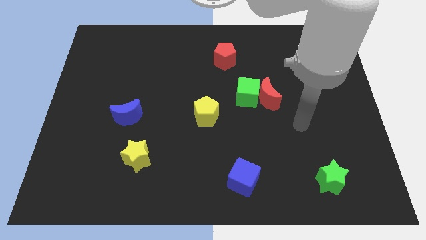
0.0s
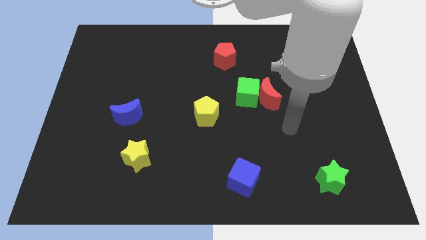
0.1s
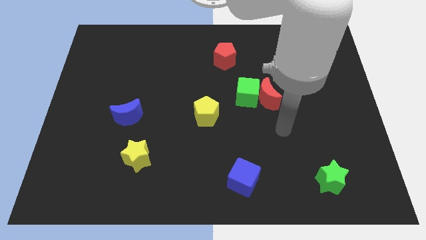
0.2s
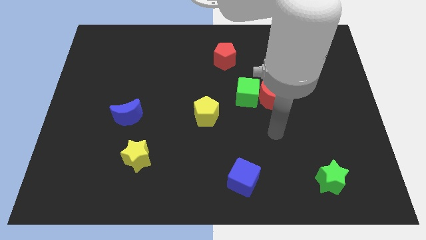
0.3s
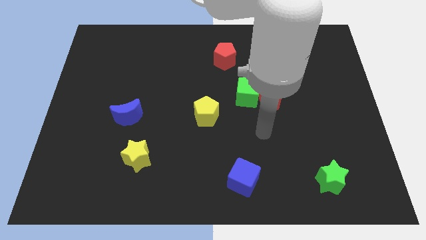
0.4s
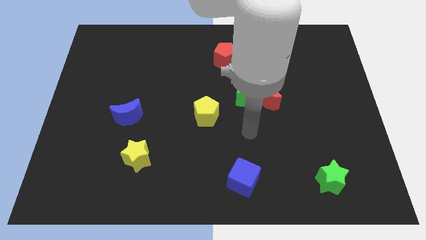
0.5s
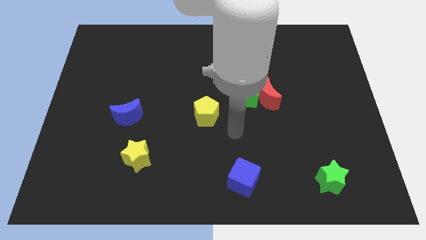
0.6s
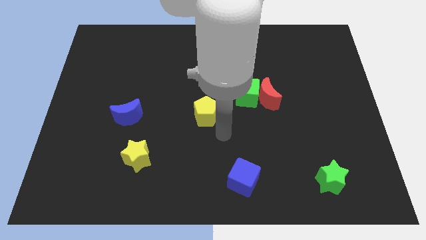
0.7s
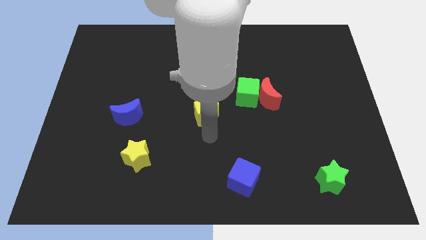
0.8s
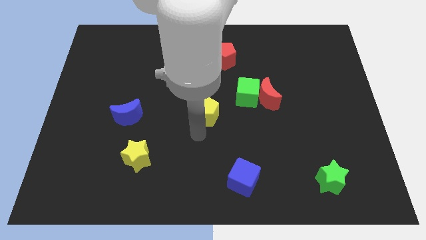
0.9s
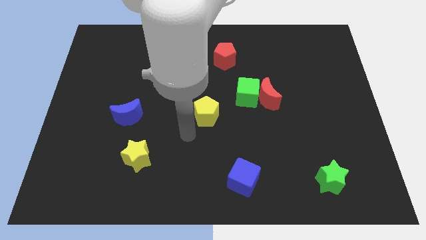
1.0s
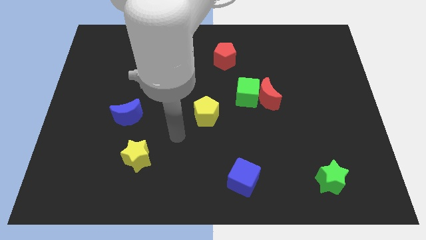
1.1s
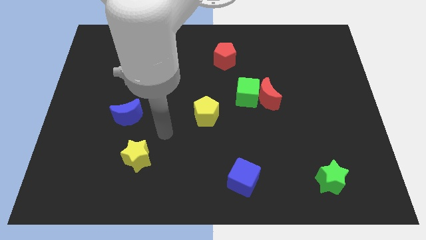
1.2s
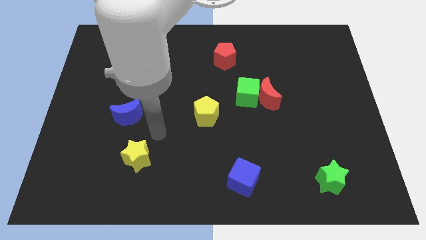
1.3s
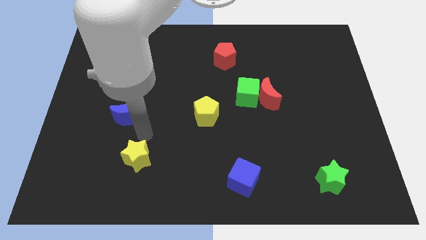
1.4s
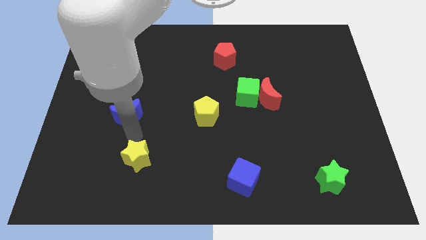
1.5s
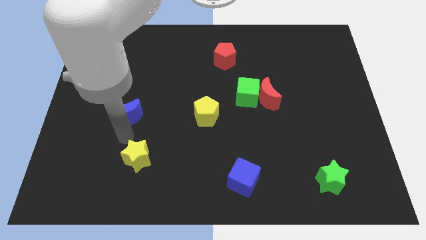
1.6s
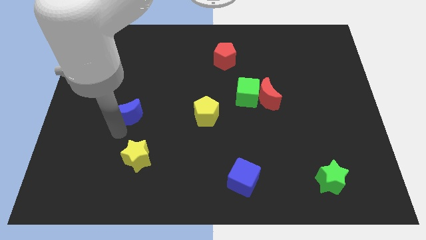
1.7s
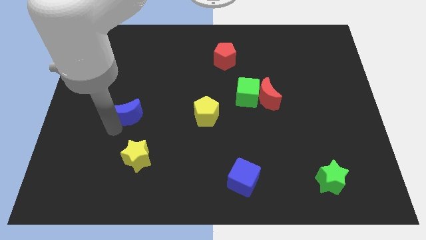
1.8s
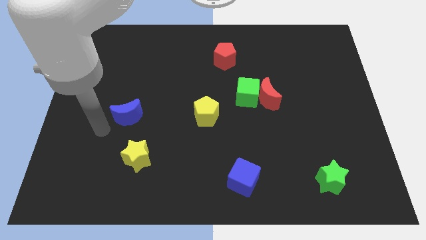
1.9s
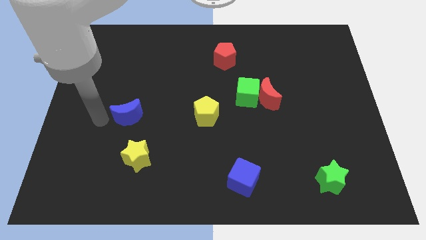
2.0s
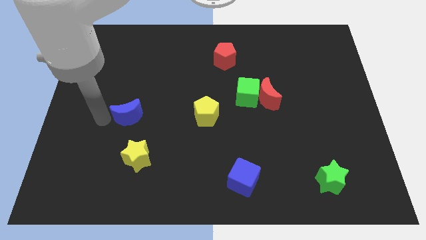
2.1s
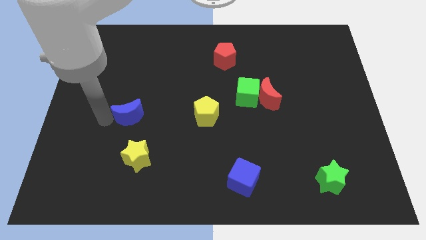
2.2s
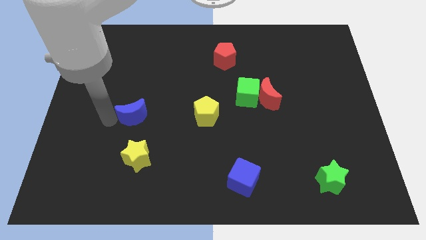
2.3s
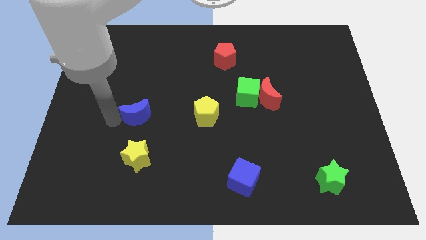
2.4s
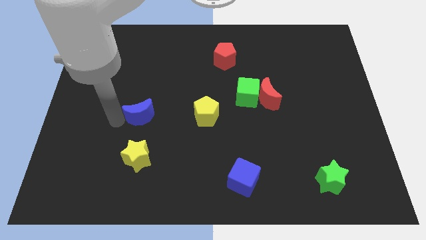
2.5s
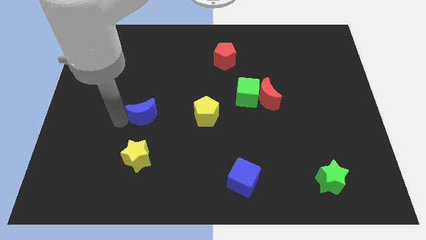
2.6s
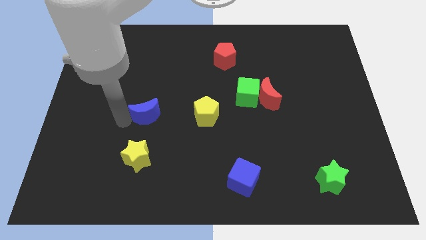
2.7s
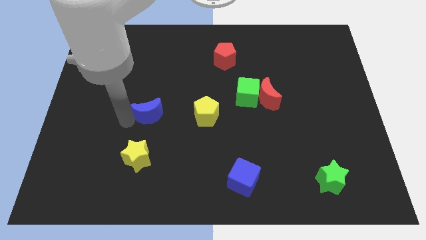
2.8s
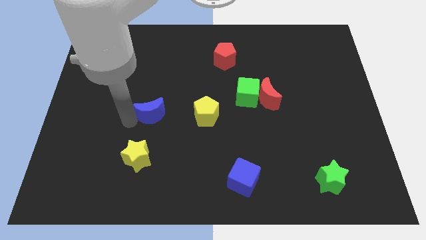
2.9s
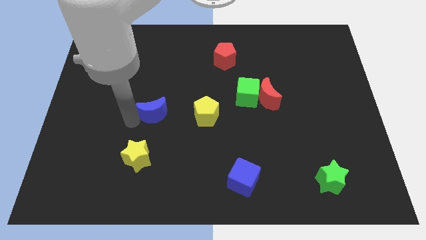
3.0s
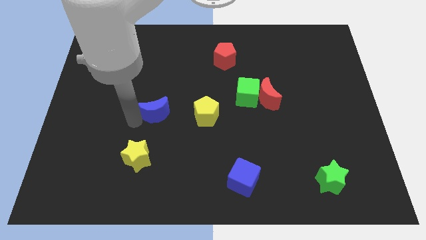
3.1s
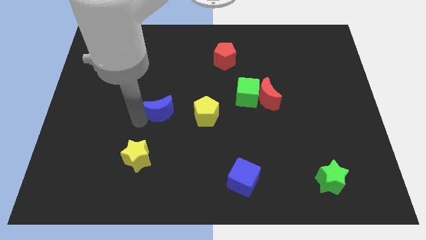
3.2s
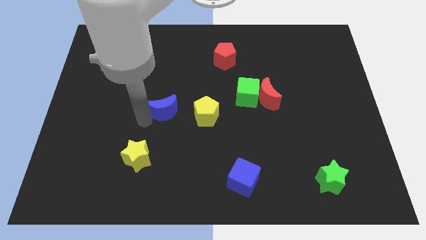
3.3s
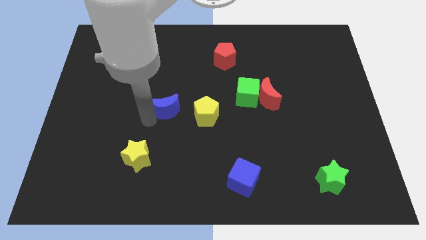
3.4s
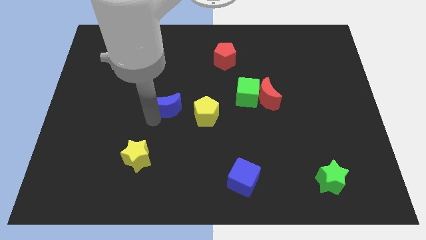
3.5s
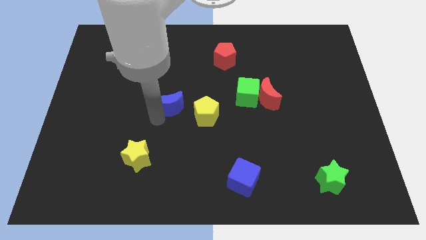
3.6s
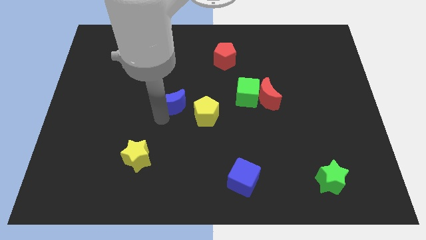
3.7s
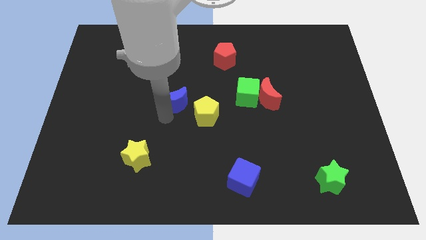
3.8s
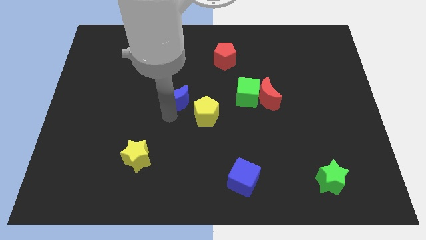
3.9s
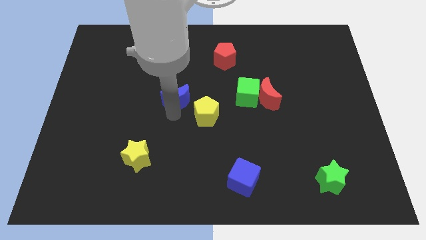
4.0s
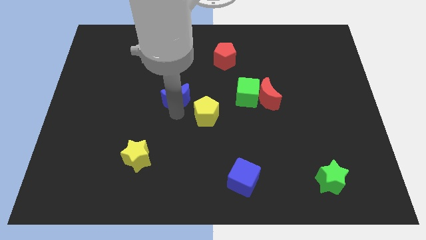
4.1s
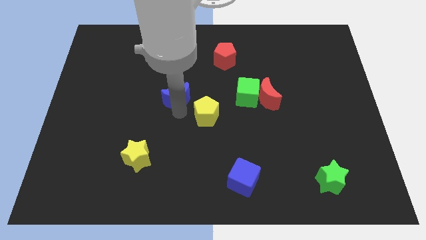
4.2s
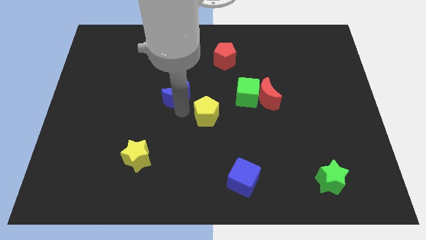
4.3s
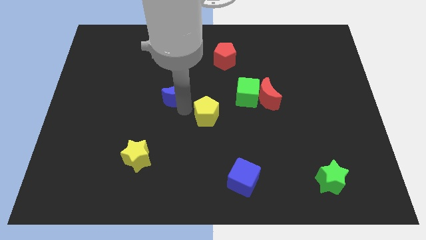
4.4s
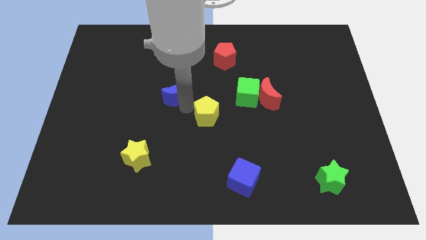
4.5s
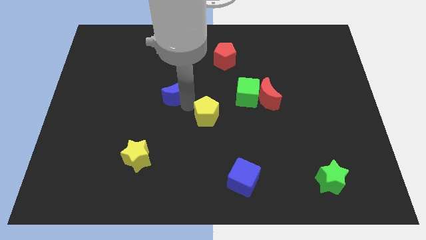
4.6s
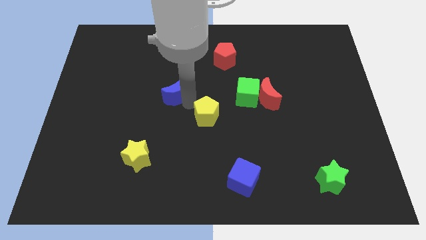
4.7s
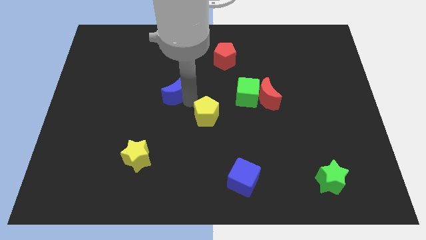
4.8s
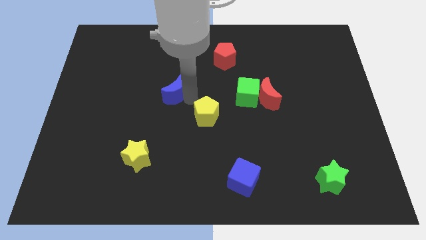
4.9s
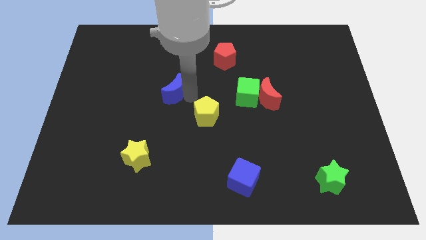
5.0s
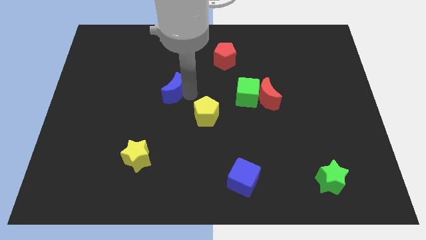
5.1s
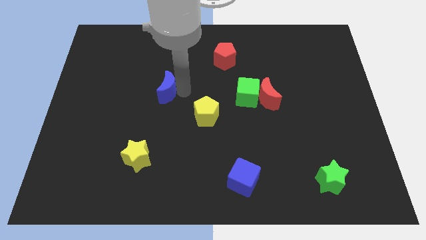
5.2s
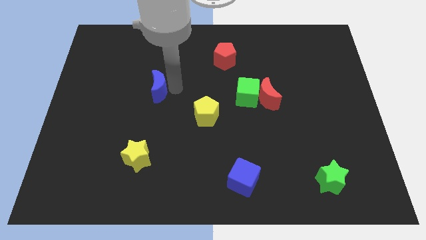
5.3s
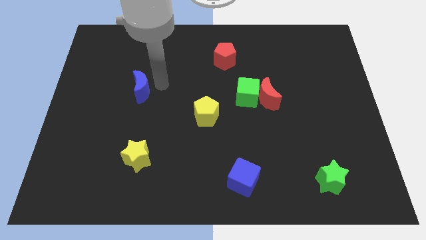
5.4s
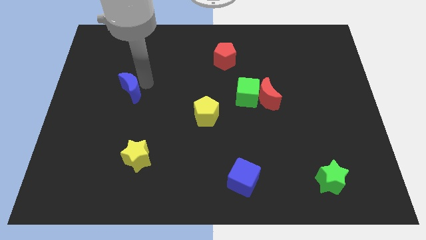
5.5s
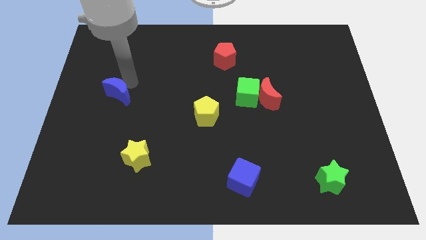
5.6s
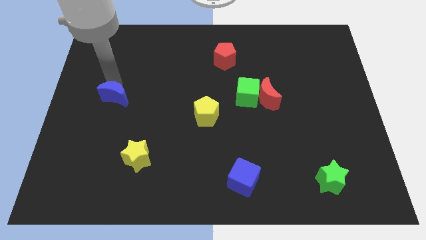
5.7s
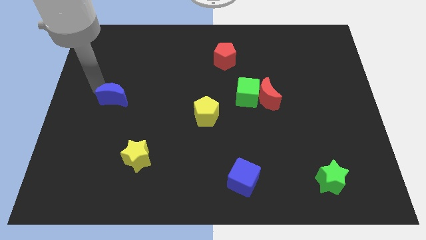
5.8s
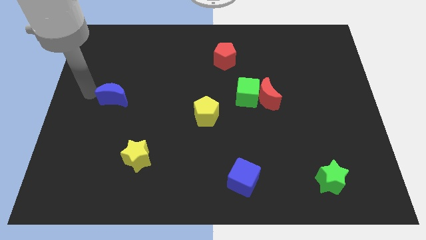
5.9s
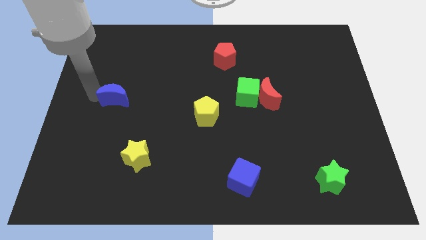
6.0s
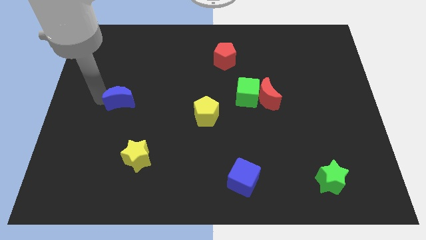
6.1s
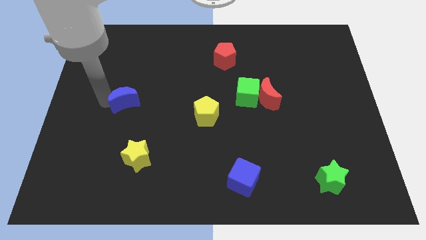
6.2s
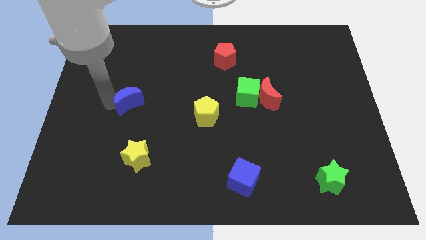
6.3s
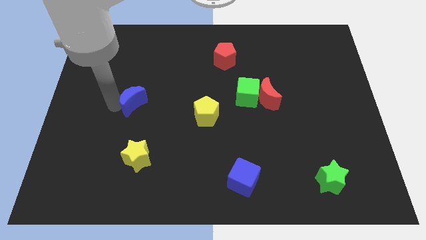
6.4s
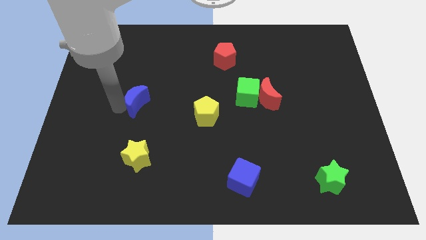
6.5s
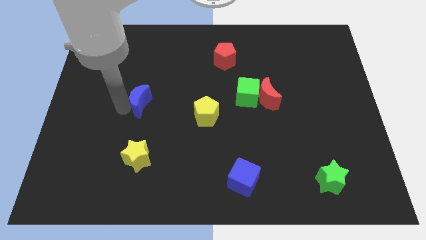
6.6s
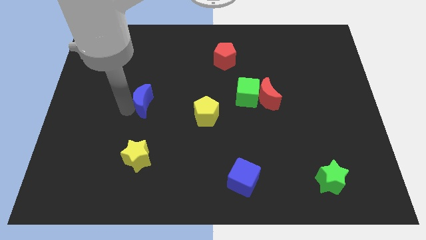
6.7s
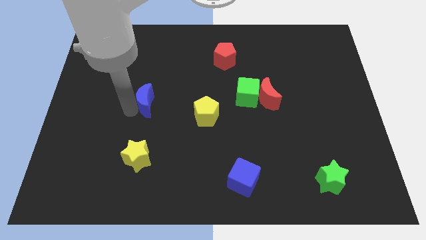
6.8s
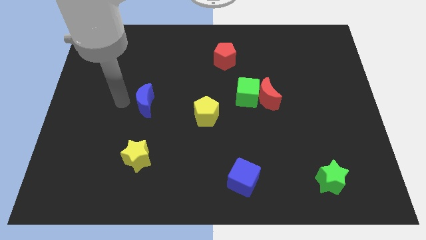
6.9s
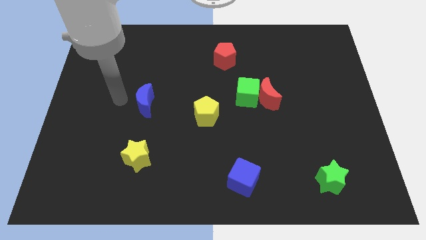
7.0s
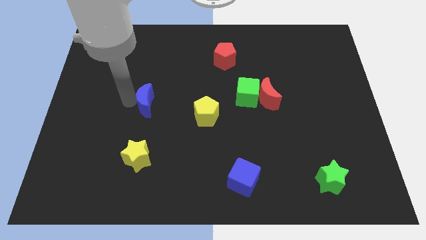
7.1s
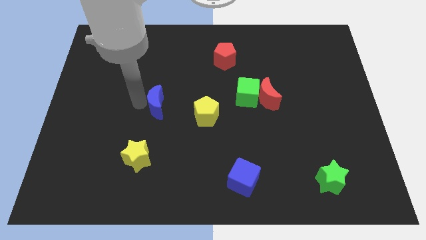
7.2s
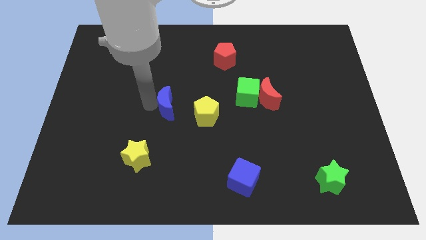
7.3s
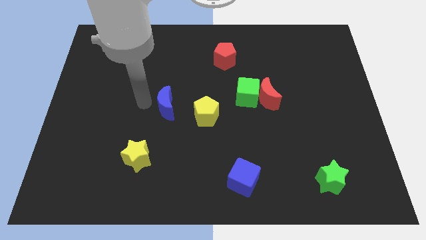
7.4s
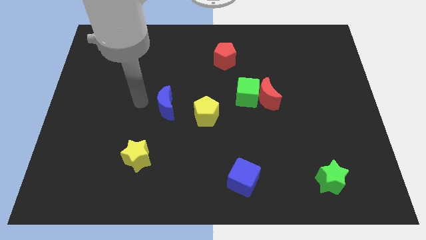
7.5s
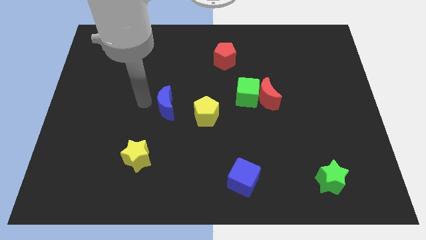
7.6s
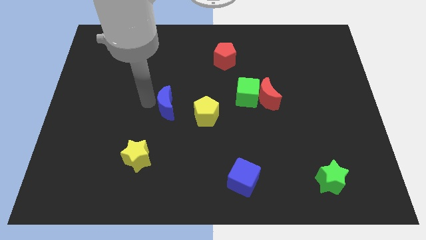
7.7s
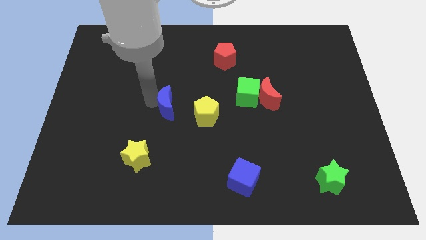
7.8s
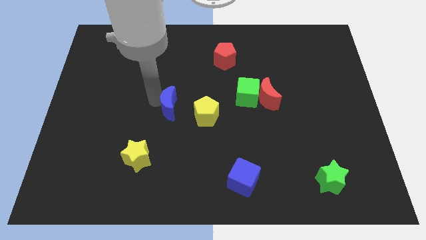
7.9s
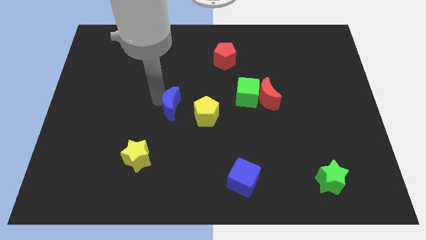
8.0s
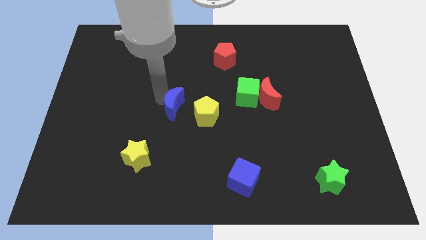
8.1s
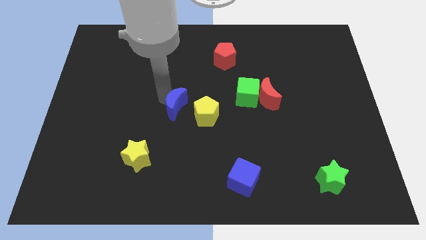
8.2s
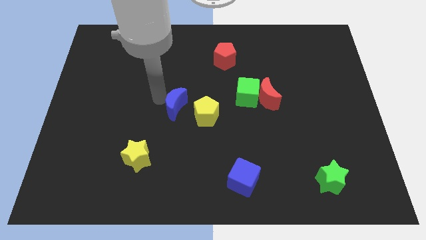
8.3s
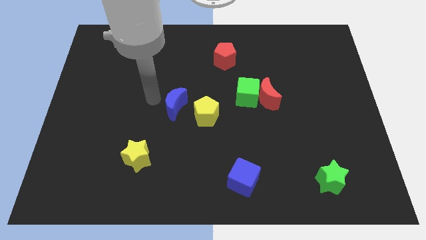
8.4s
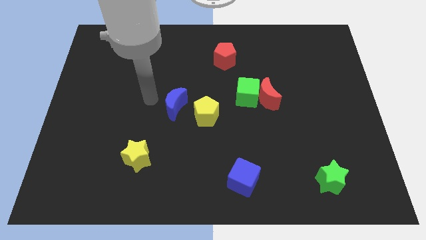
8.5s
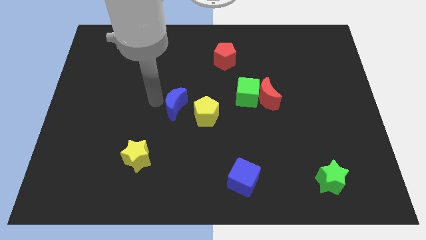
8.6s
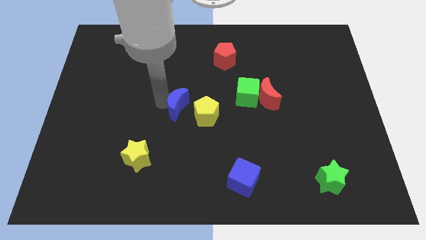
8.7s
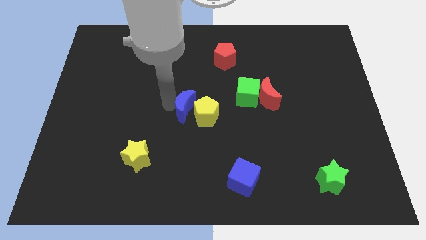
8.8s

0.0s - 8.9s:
push the blue moon next to the yellow pentagon
